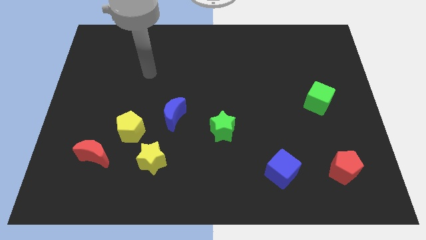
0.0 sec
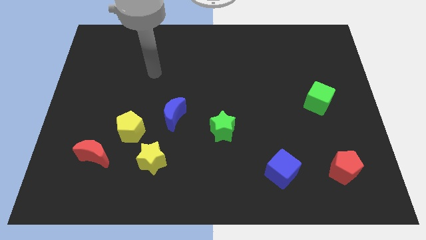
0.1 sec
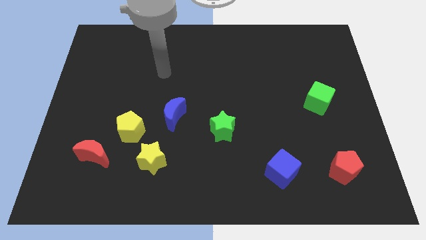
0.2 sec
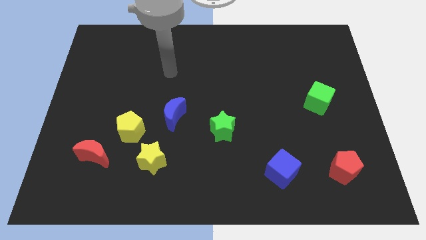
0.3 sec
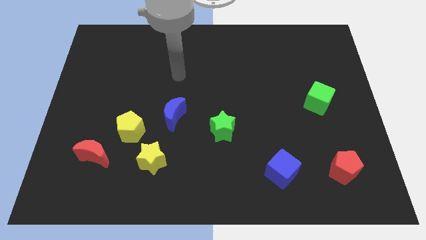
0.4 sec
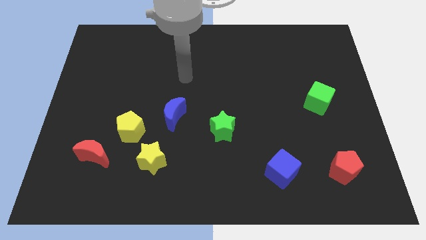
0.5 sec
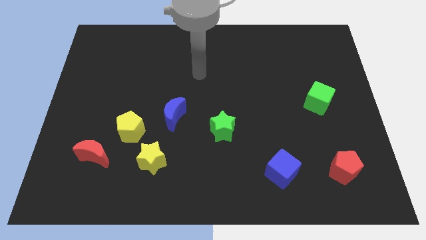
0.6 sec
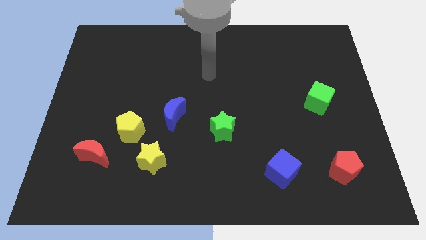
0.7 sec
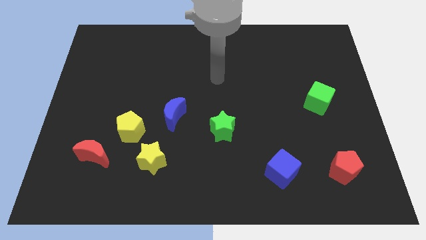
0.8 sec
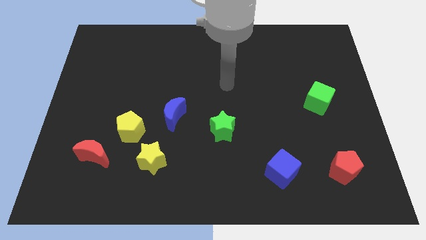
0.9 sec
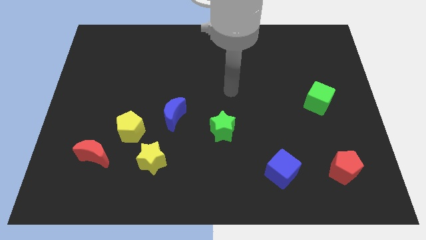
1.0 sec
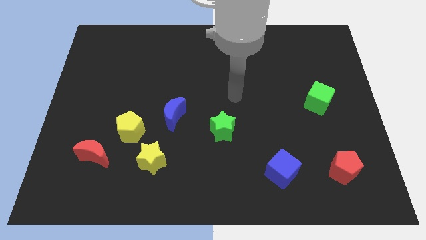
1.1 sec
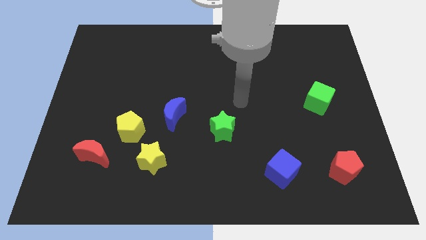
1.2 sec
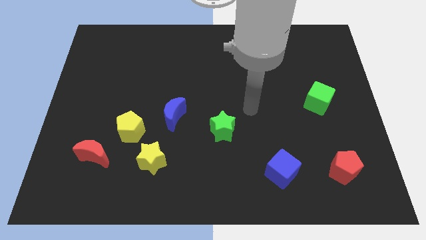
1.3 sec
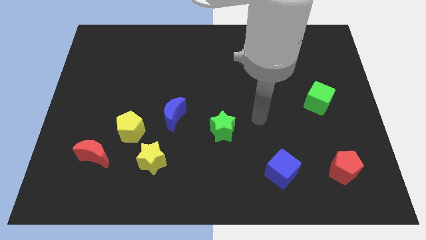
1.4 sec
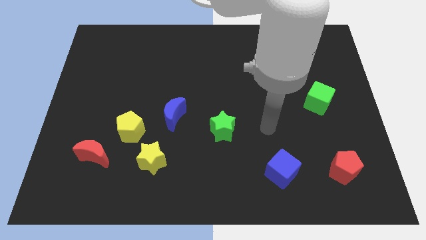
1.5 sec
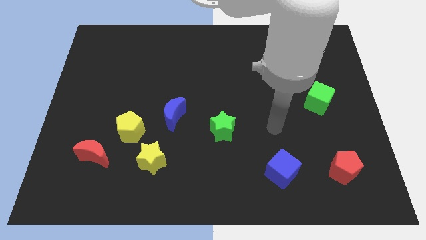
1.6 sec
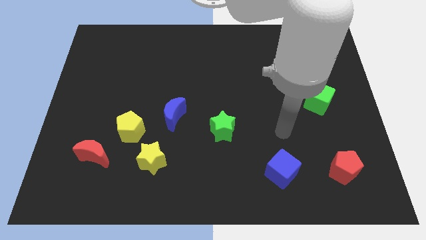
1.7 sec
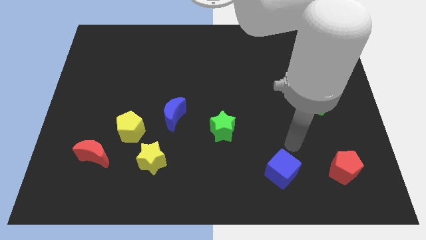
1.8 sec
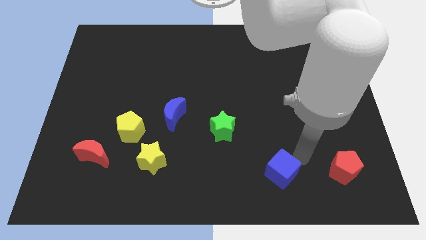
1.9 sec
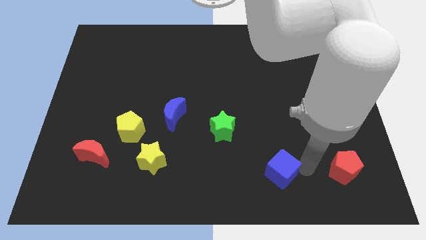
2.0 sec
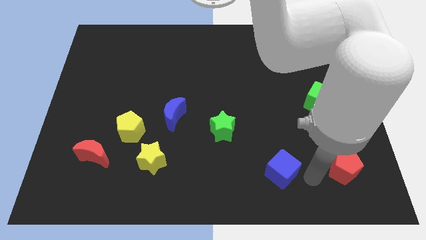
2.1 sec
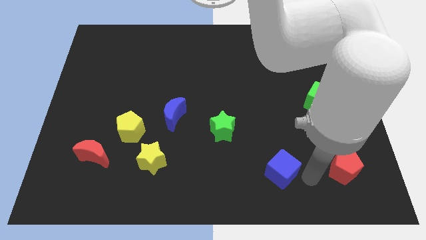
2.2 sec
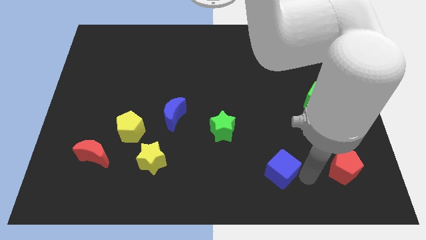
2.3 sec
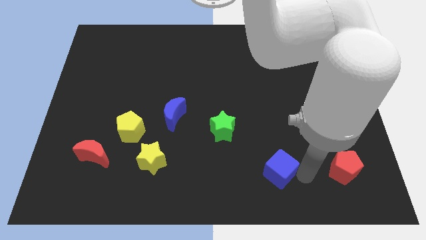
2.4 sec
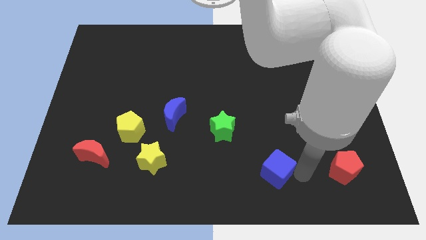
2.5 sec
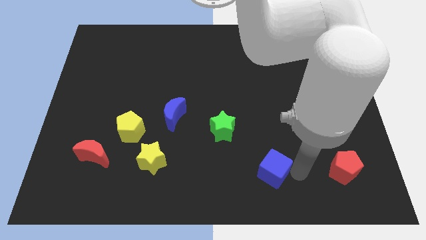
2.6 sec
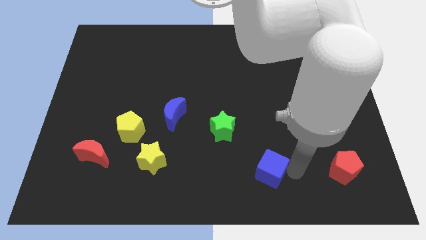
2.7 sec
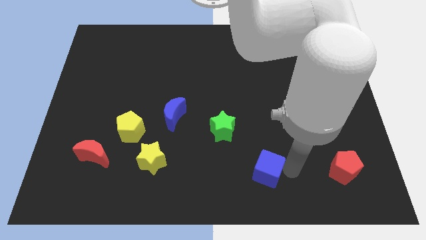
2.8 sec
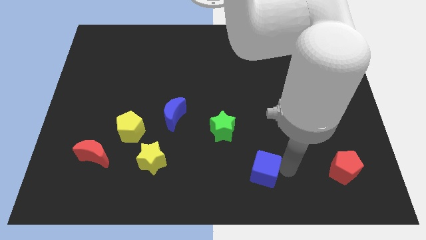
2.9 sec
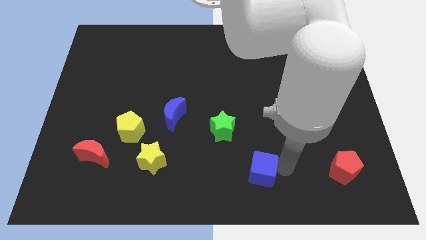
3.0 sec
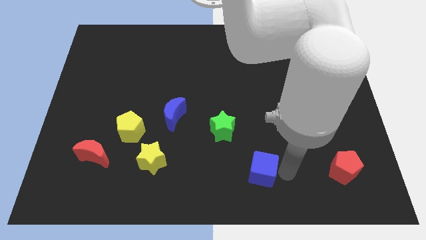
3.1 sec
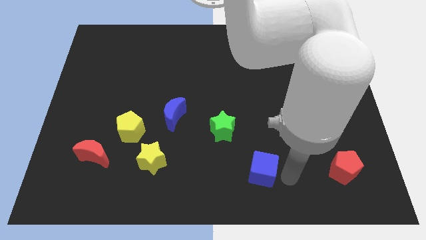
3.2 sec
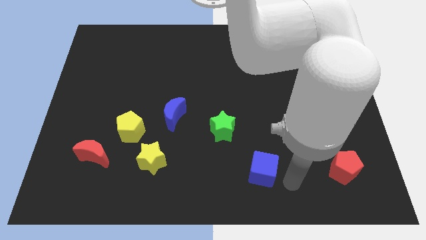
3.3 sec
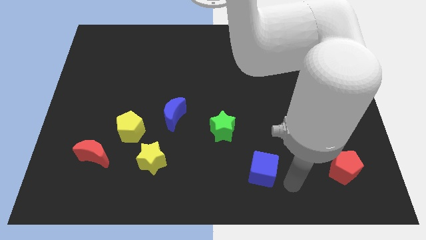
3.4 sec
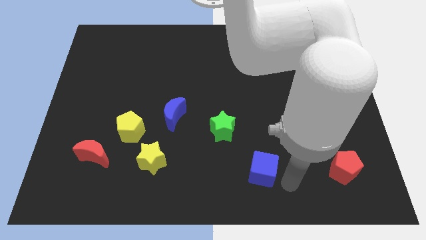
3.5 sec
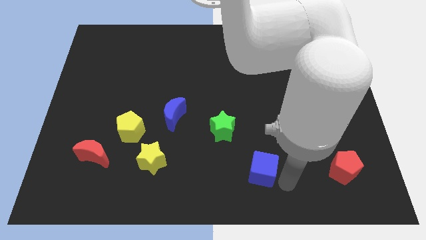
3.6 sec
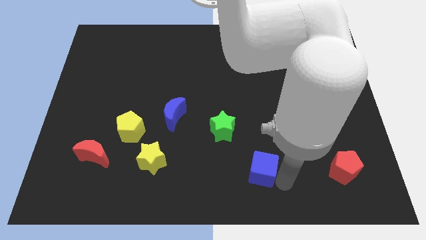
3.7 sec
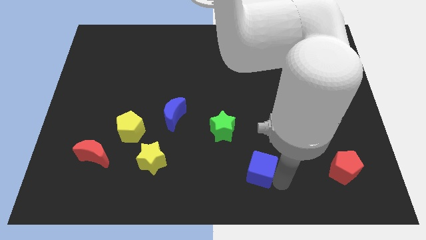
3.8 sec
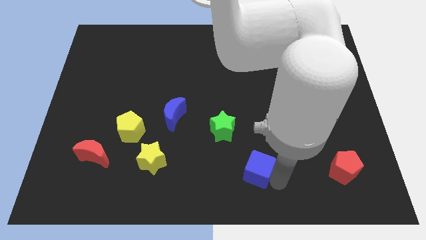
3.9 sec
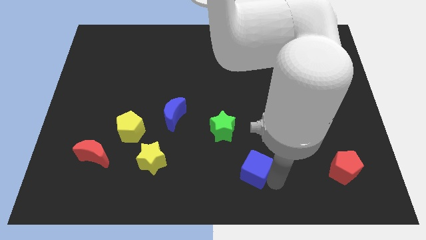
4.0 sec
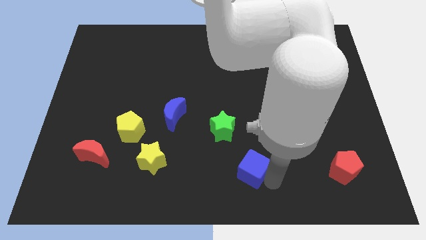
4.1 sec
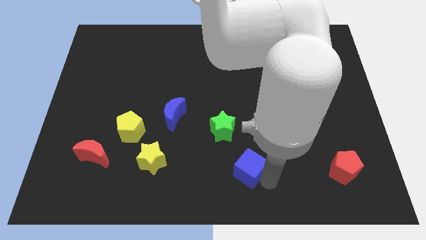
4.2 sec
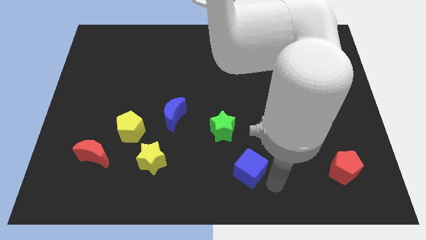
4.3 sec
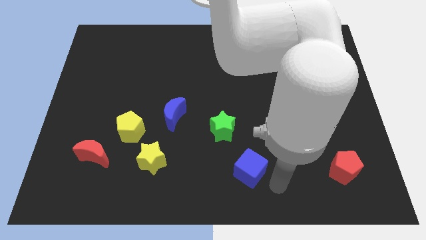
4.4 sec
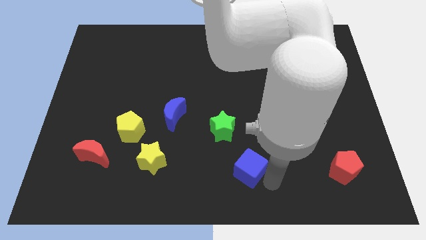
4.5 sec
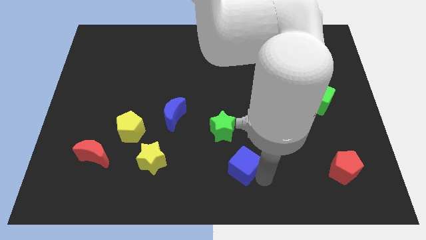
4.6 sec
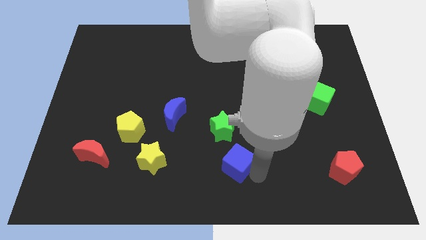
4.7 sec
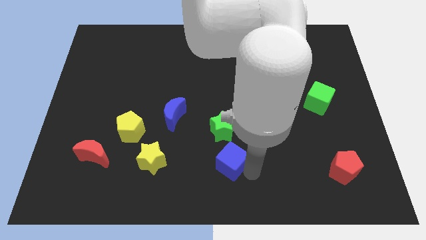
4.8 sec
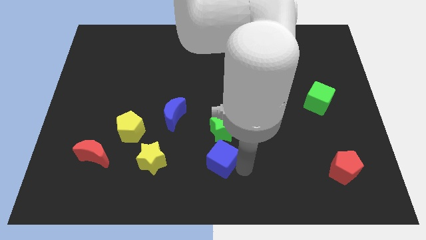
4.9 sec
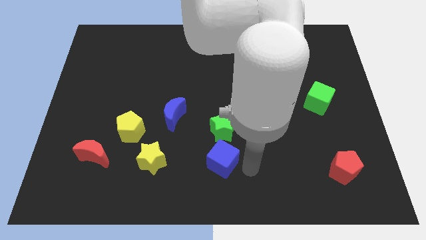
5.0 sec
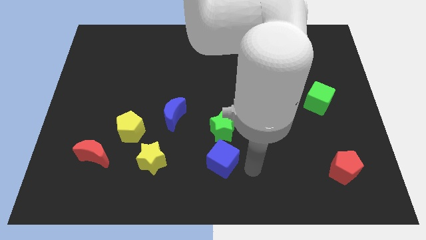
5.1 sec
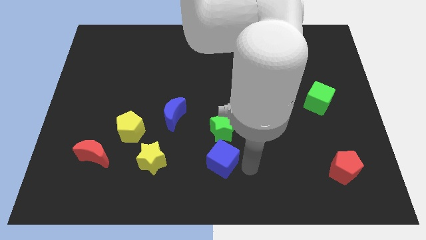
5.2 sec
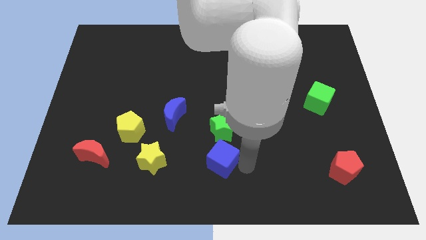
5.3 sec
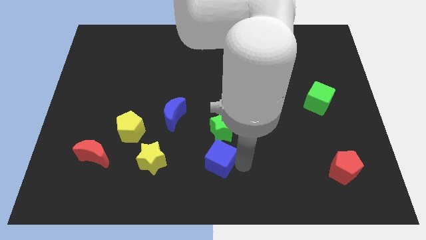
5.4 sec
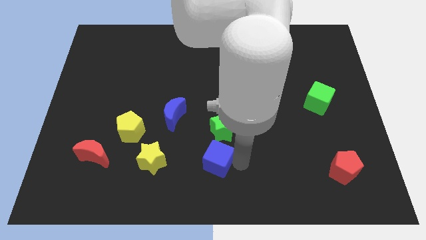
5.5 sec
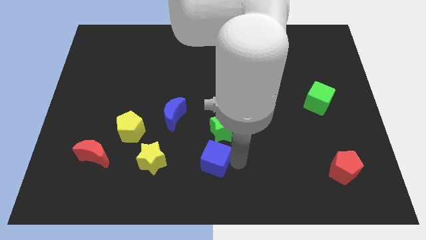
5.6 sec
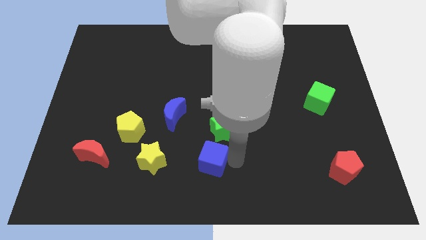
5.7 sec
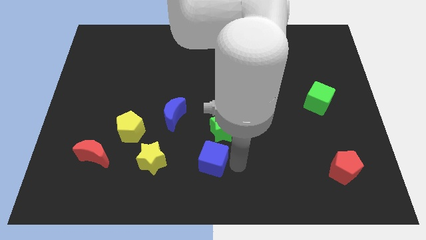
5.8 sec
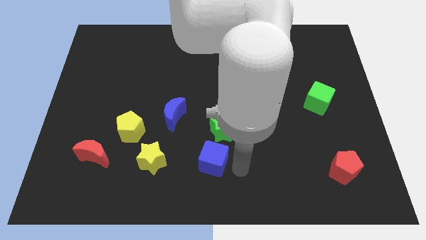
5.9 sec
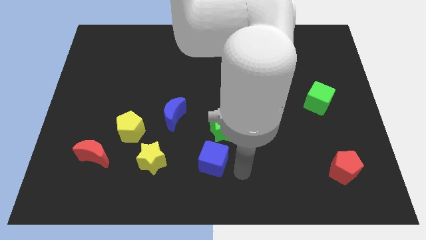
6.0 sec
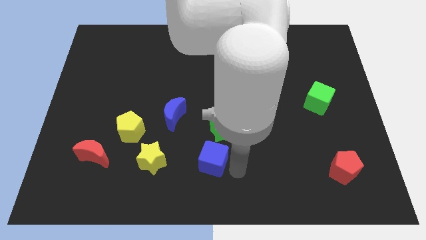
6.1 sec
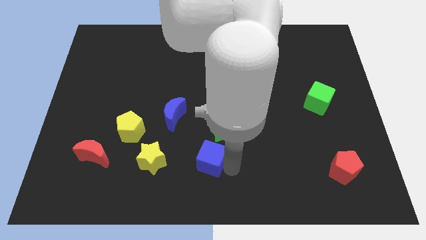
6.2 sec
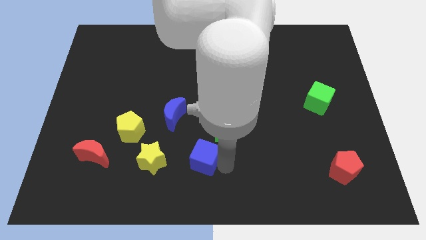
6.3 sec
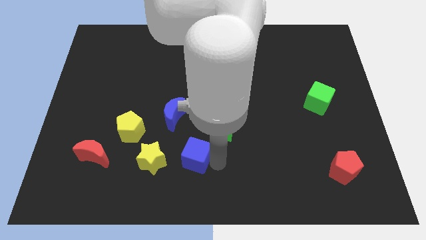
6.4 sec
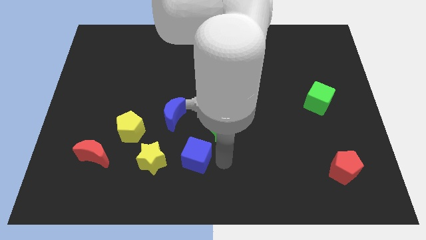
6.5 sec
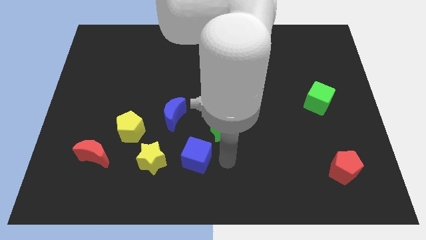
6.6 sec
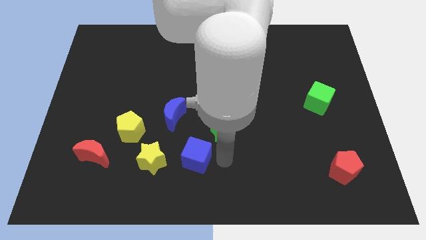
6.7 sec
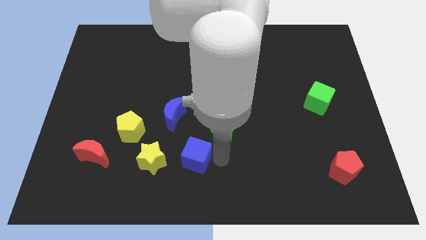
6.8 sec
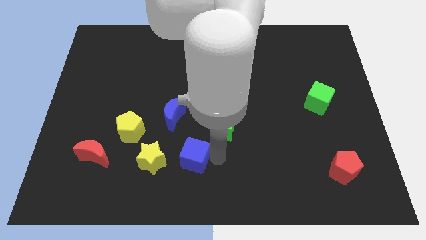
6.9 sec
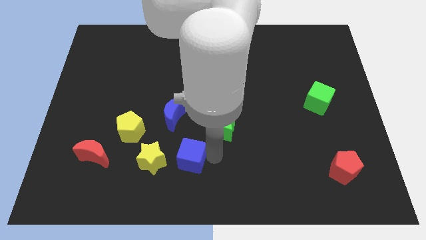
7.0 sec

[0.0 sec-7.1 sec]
move the blue cube to the bottom side of the blue moon

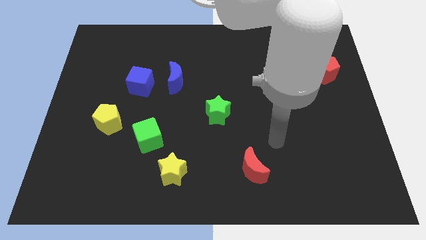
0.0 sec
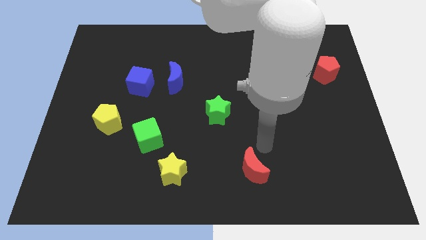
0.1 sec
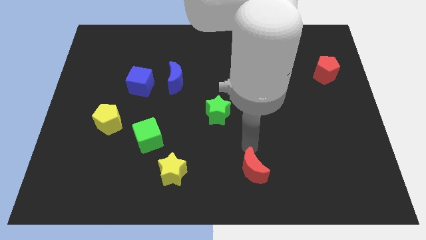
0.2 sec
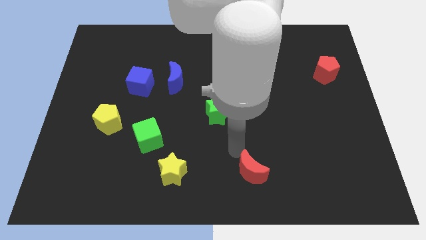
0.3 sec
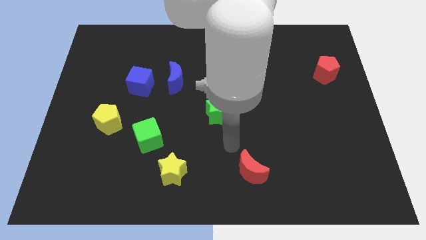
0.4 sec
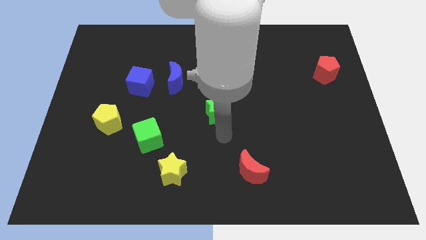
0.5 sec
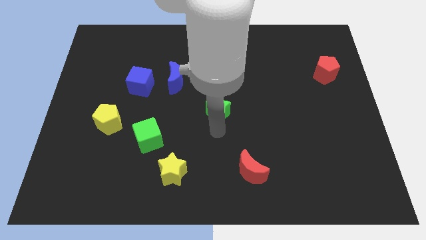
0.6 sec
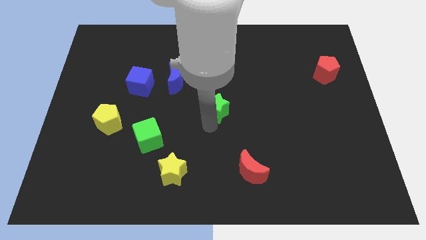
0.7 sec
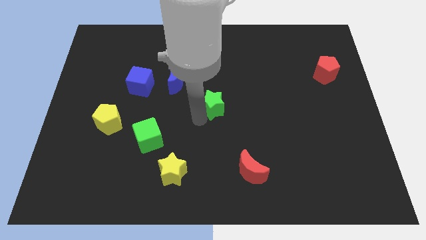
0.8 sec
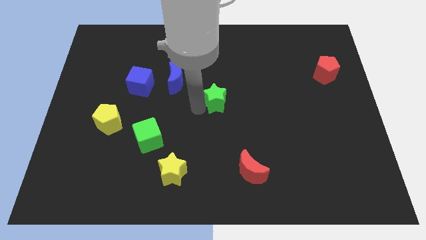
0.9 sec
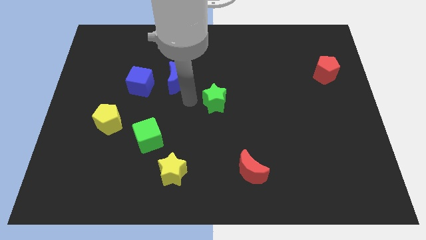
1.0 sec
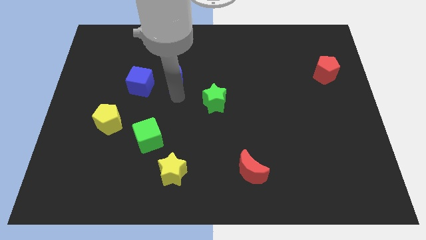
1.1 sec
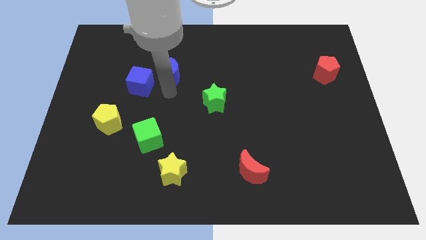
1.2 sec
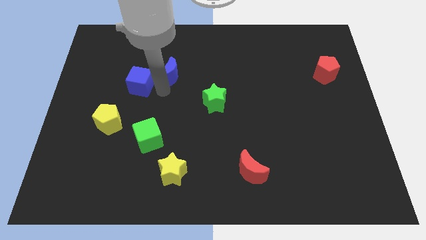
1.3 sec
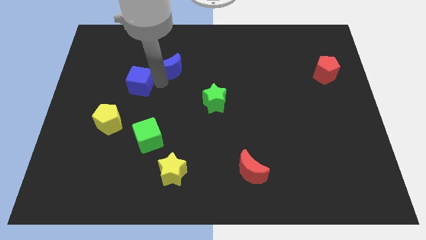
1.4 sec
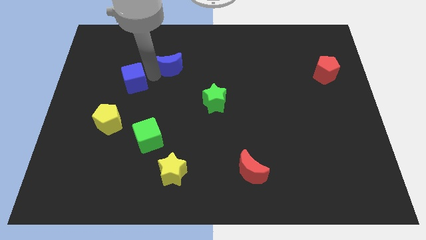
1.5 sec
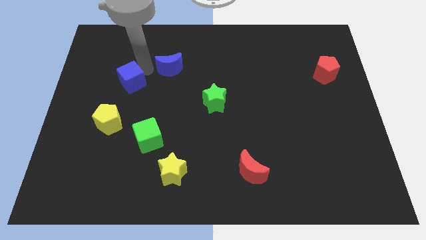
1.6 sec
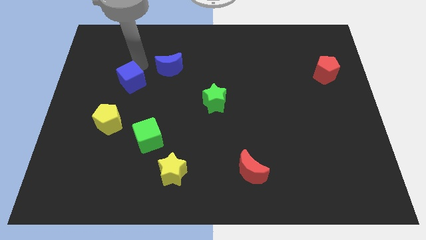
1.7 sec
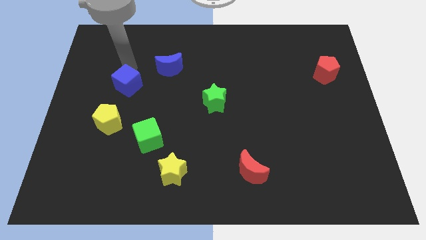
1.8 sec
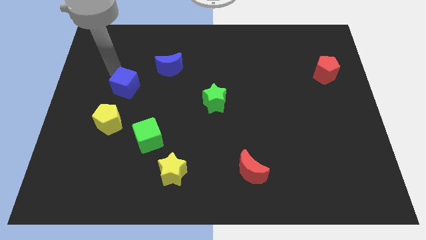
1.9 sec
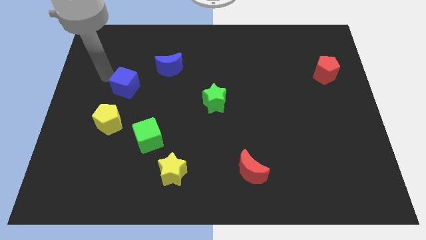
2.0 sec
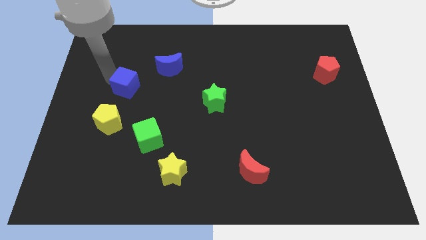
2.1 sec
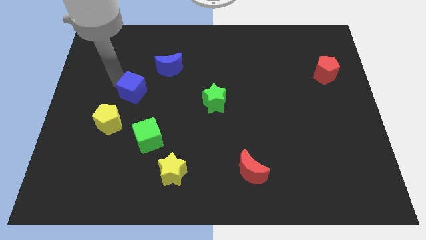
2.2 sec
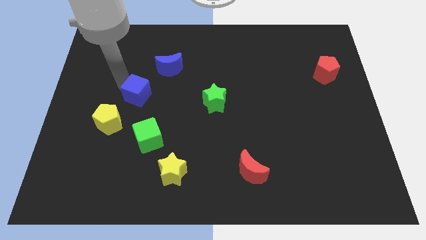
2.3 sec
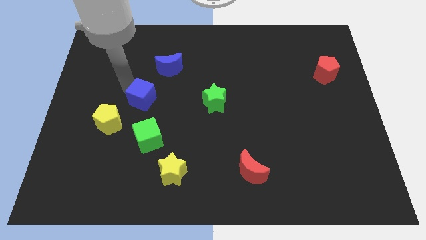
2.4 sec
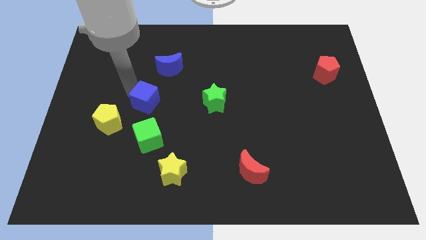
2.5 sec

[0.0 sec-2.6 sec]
put the blue cube to the bottom side of the blue moon
